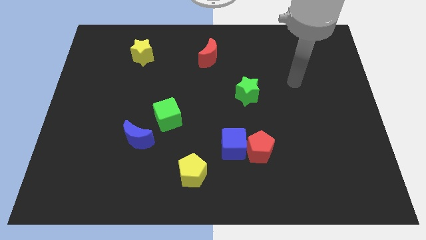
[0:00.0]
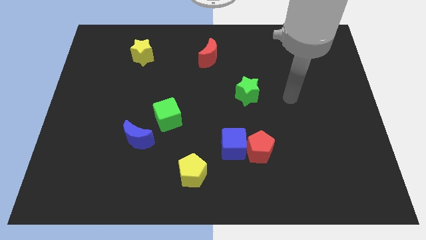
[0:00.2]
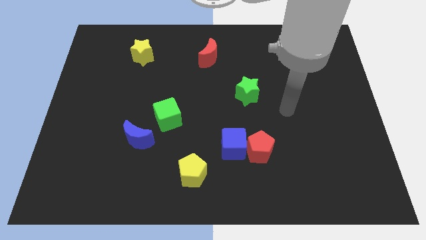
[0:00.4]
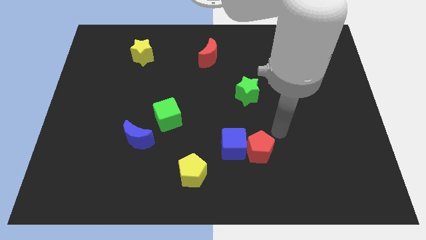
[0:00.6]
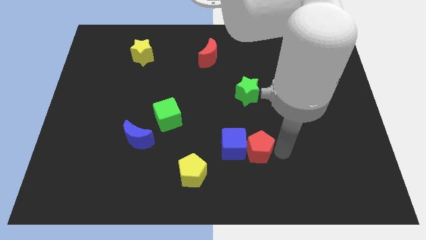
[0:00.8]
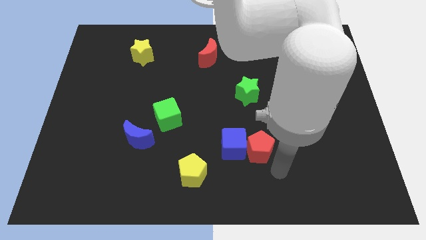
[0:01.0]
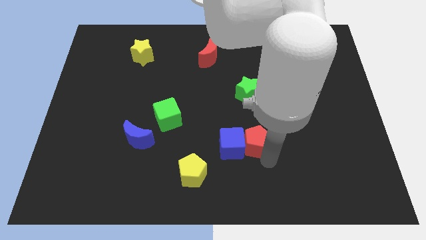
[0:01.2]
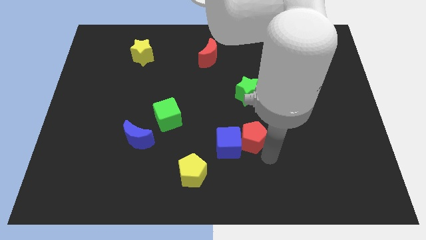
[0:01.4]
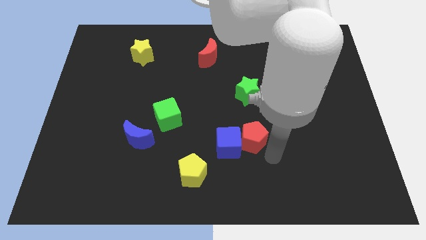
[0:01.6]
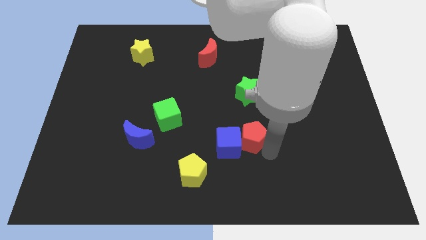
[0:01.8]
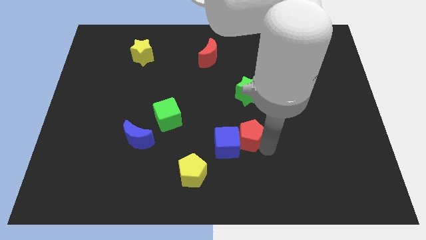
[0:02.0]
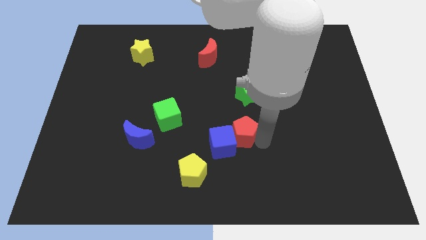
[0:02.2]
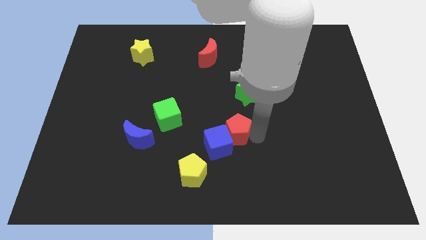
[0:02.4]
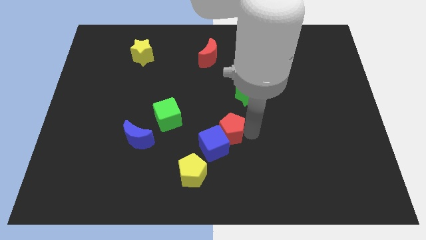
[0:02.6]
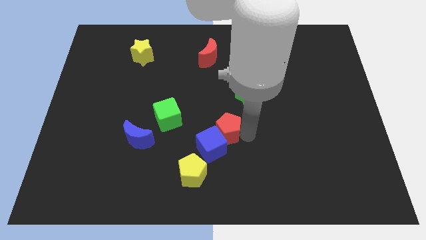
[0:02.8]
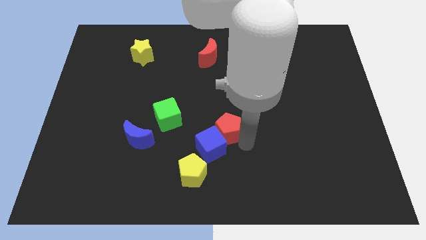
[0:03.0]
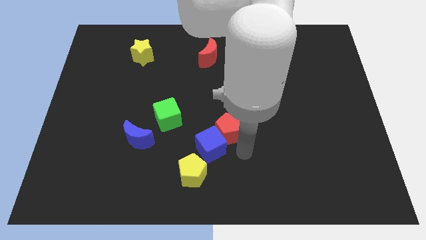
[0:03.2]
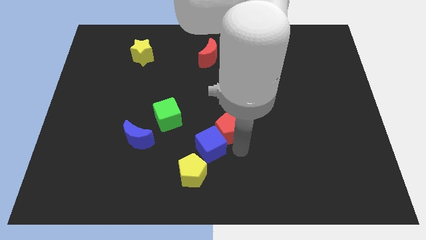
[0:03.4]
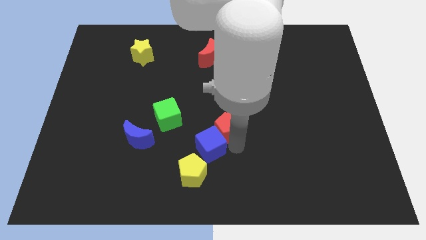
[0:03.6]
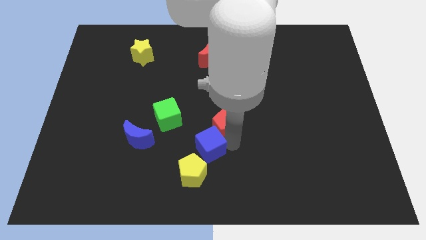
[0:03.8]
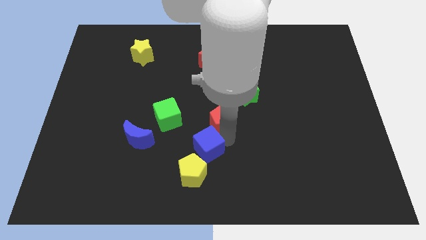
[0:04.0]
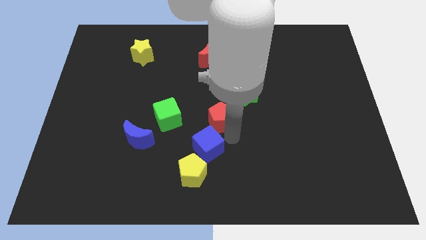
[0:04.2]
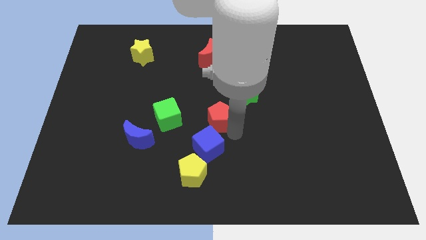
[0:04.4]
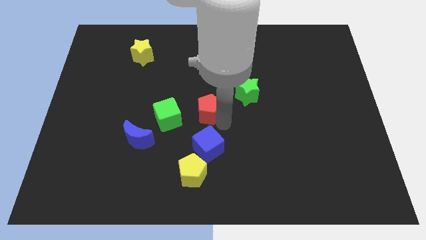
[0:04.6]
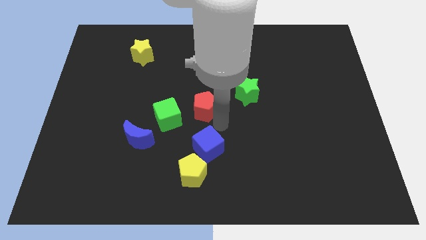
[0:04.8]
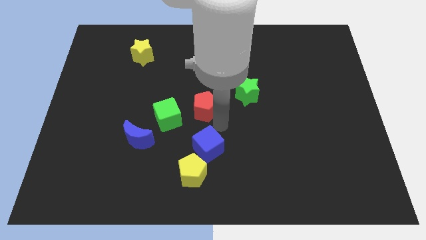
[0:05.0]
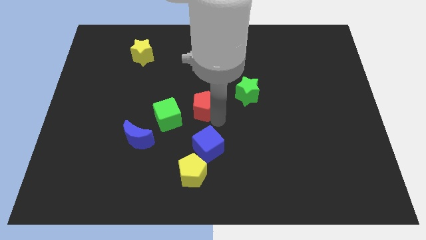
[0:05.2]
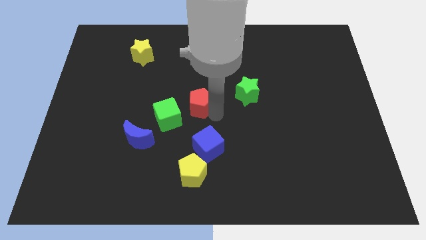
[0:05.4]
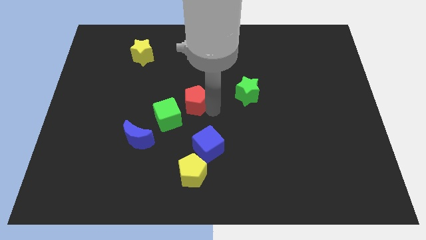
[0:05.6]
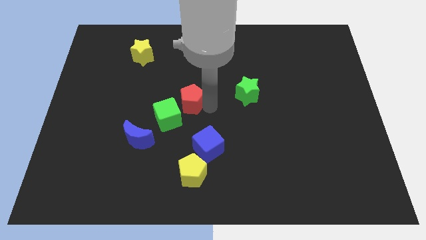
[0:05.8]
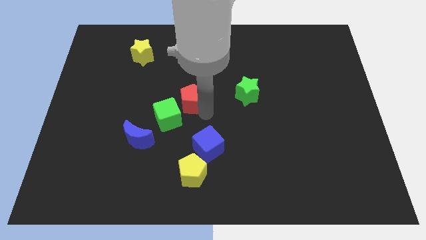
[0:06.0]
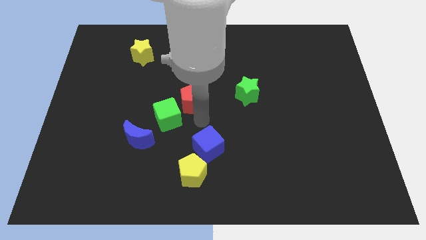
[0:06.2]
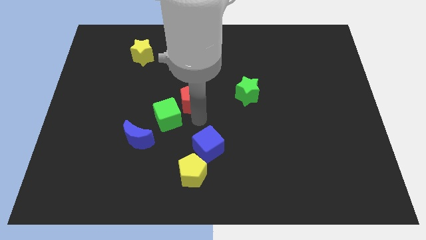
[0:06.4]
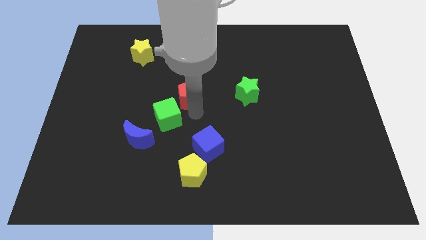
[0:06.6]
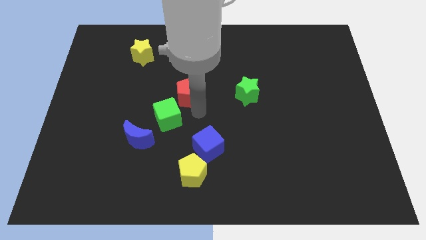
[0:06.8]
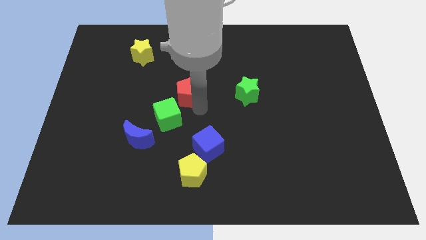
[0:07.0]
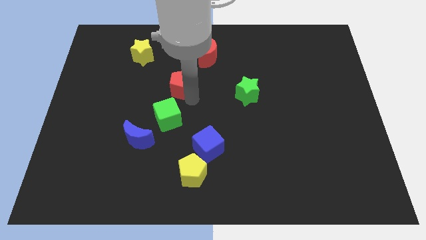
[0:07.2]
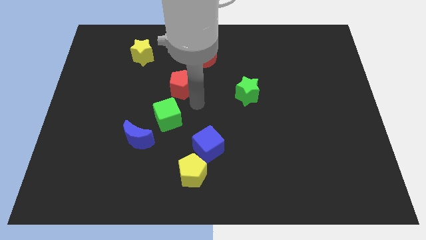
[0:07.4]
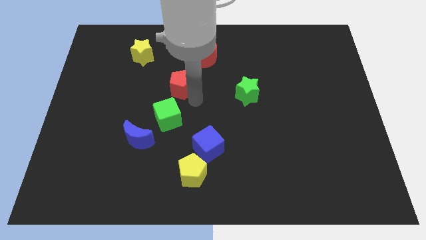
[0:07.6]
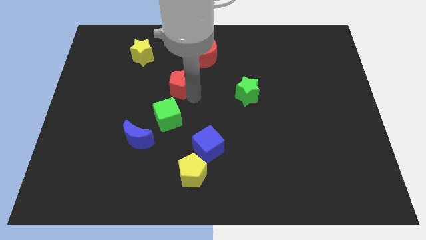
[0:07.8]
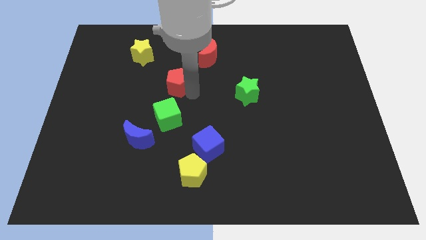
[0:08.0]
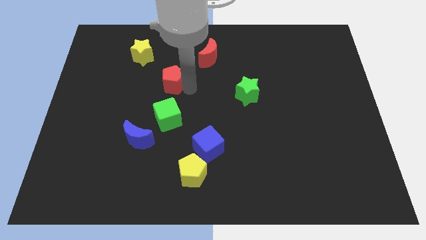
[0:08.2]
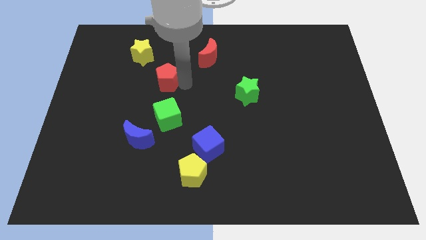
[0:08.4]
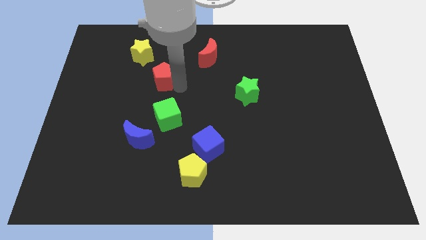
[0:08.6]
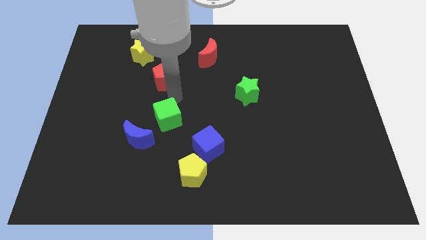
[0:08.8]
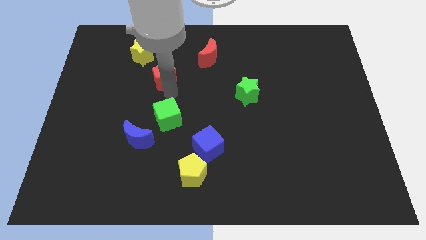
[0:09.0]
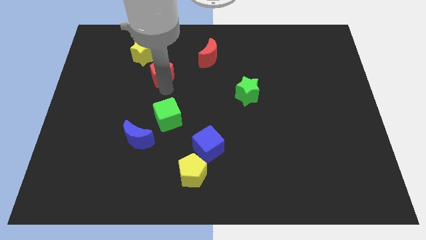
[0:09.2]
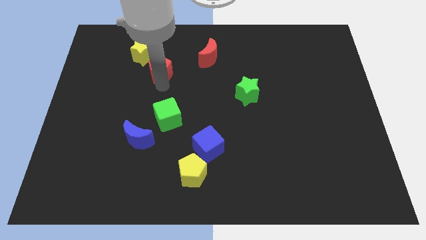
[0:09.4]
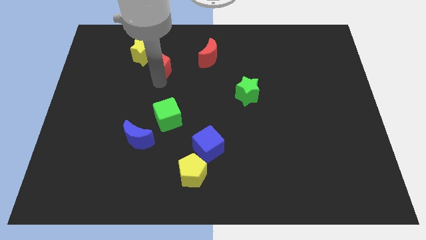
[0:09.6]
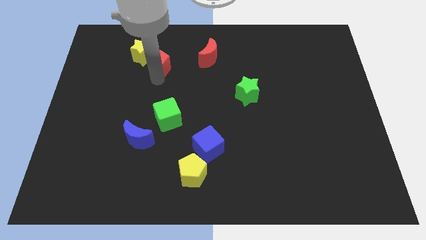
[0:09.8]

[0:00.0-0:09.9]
move the red pentagon to the yellow star

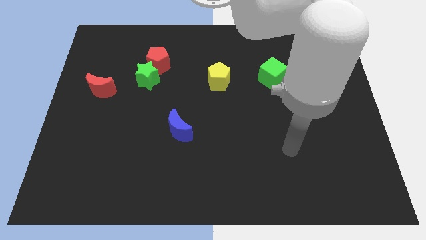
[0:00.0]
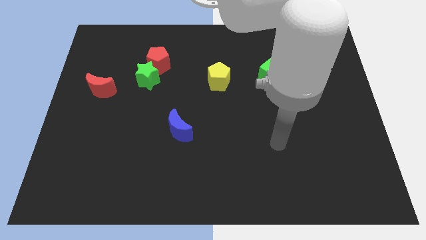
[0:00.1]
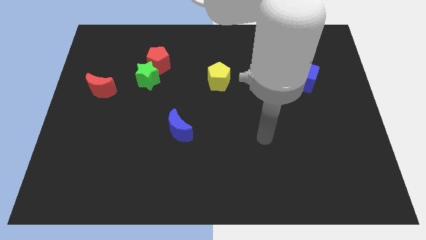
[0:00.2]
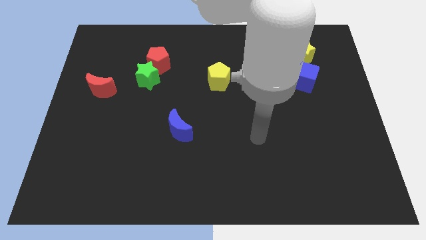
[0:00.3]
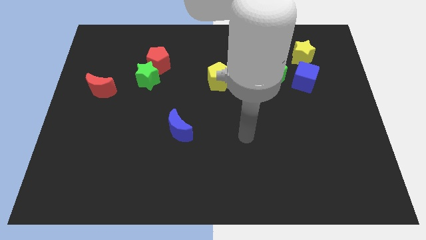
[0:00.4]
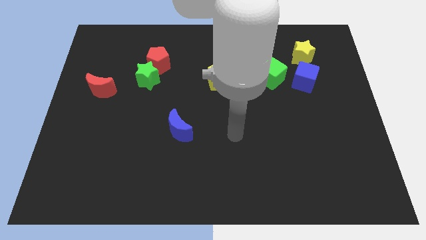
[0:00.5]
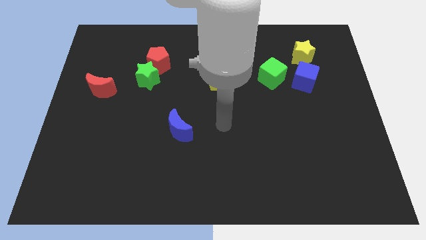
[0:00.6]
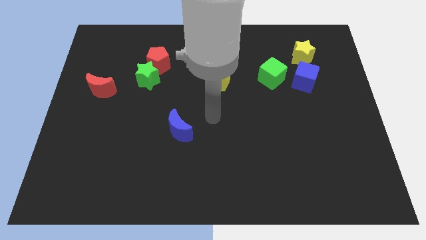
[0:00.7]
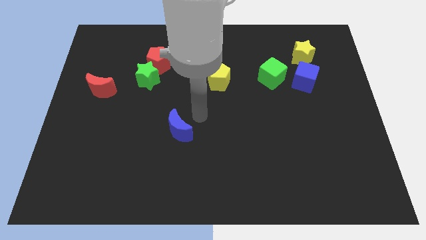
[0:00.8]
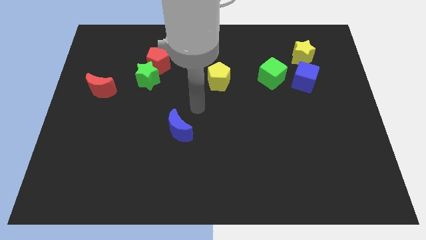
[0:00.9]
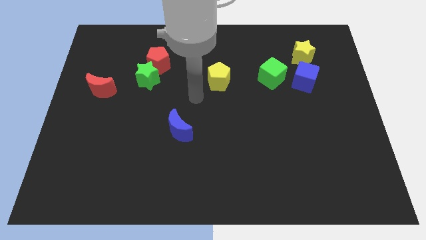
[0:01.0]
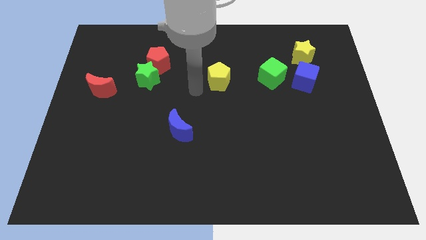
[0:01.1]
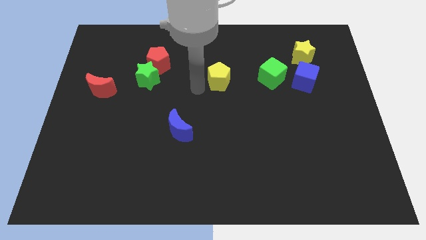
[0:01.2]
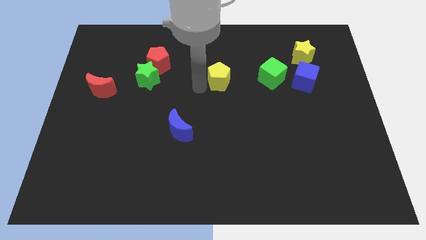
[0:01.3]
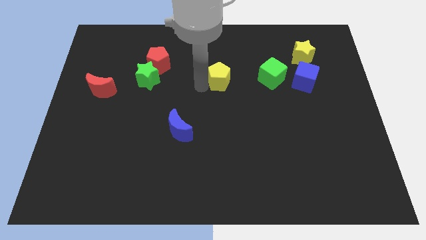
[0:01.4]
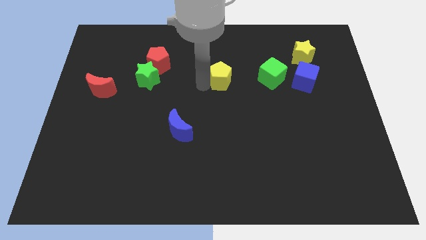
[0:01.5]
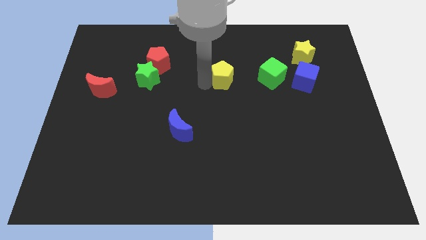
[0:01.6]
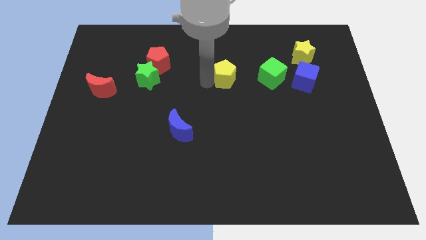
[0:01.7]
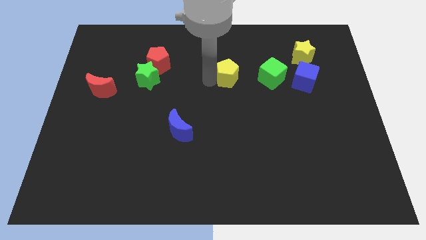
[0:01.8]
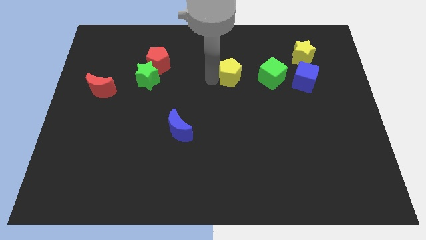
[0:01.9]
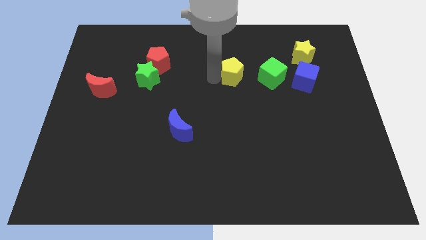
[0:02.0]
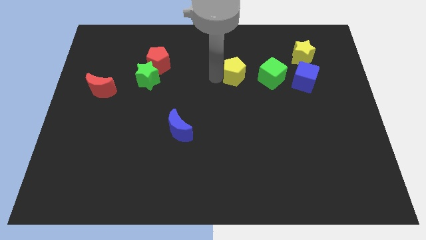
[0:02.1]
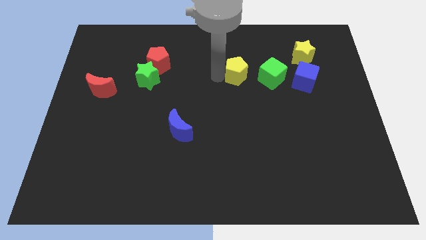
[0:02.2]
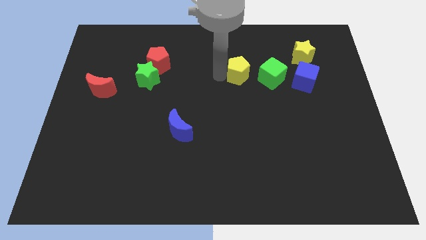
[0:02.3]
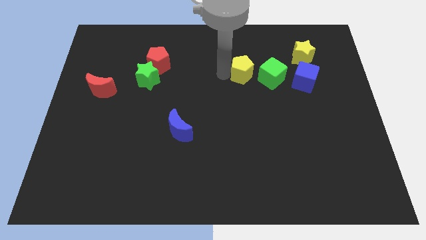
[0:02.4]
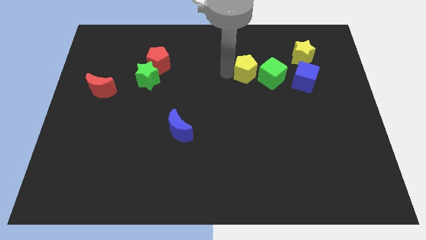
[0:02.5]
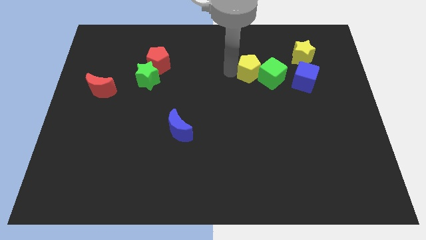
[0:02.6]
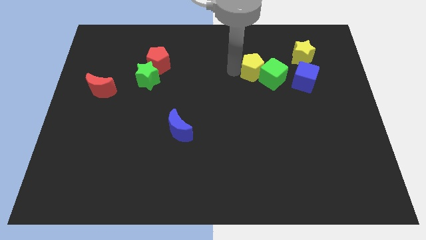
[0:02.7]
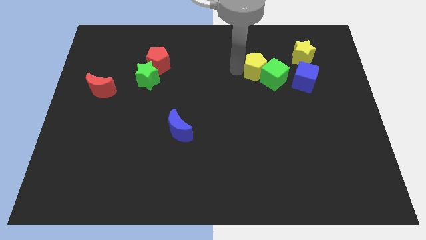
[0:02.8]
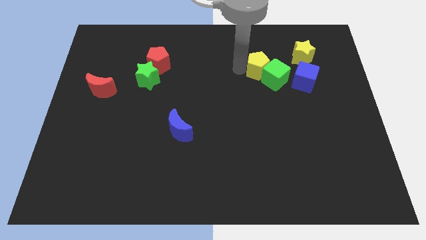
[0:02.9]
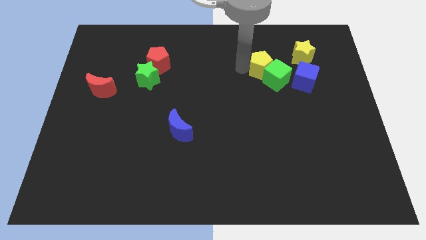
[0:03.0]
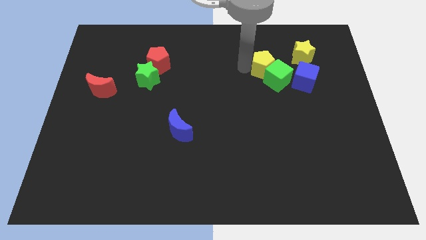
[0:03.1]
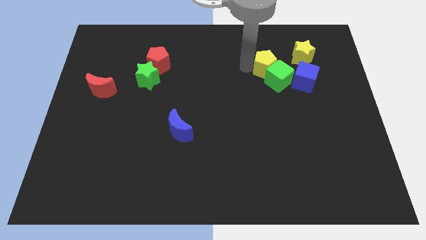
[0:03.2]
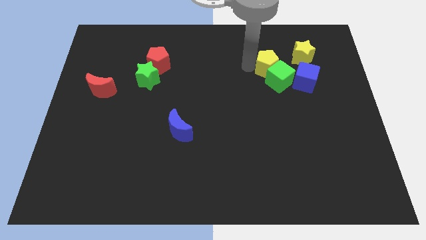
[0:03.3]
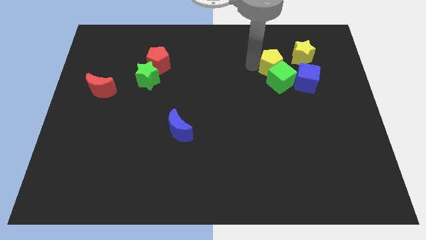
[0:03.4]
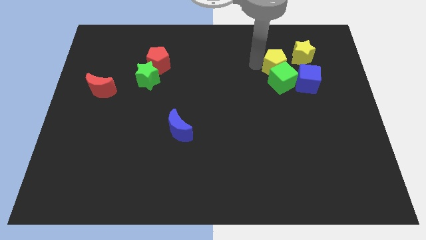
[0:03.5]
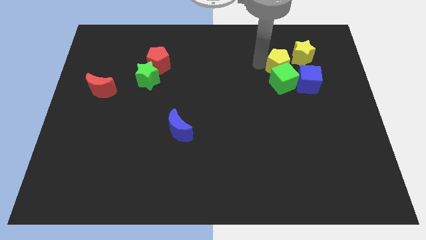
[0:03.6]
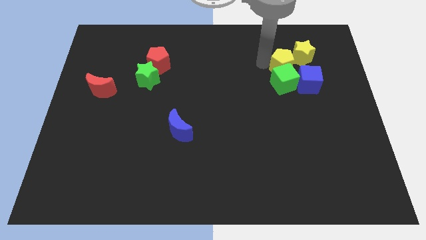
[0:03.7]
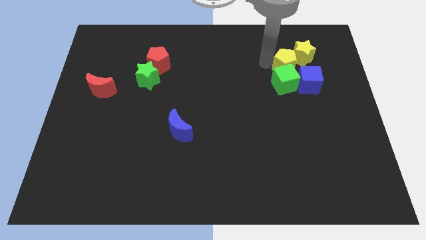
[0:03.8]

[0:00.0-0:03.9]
put the yellow pentagon next to the yellow star
